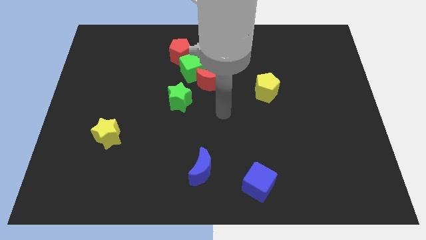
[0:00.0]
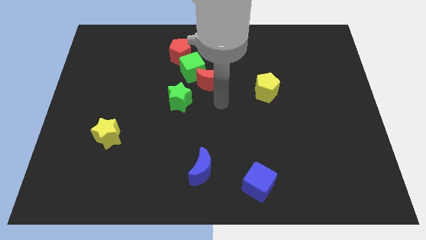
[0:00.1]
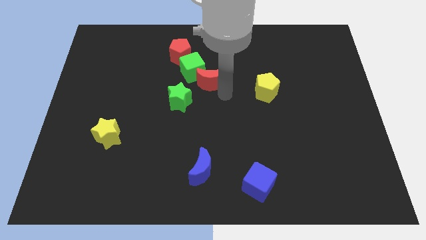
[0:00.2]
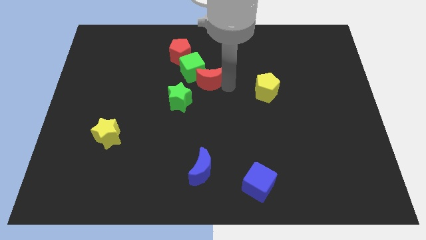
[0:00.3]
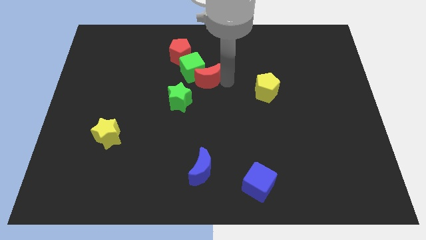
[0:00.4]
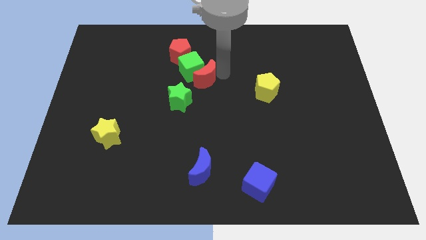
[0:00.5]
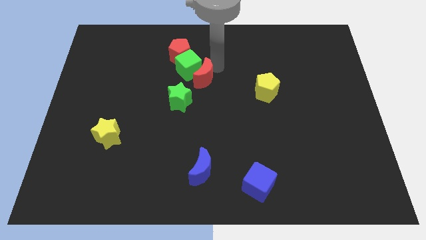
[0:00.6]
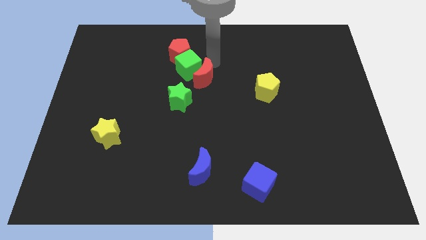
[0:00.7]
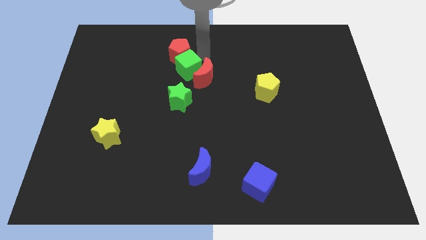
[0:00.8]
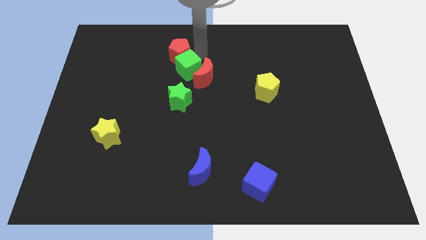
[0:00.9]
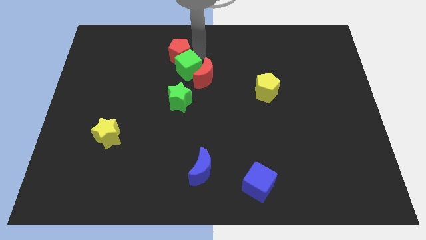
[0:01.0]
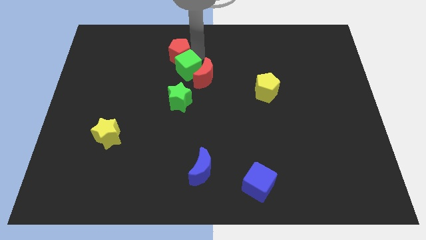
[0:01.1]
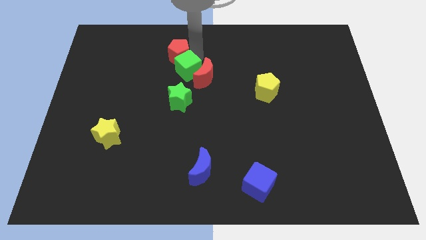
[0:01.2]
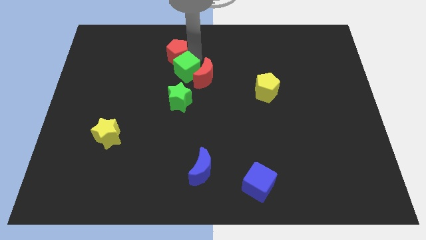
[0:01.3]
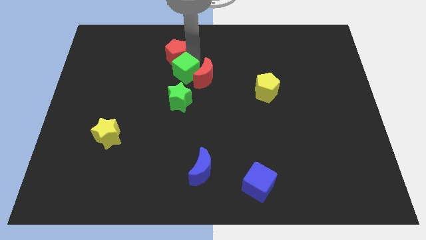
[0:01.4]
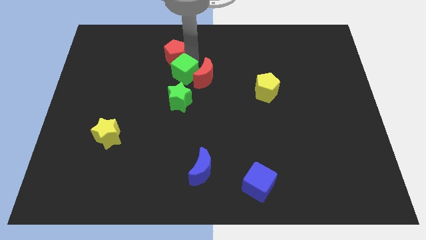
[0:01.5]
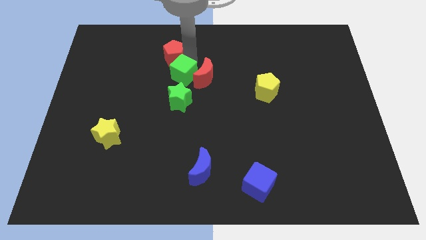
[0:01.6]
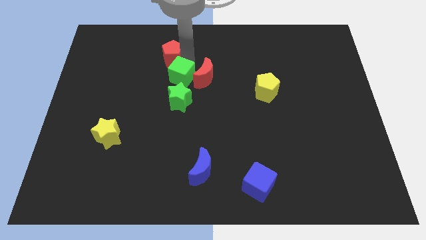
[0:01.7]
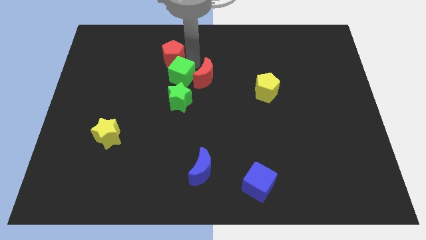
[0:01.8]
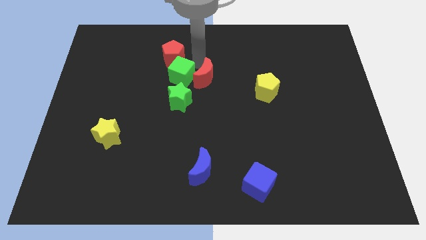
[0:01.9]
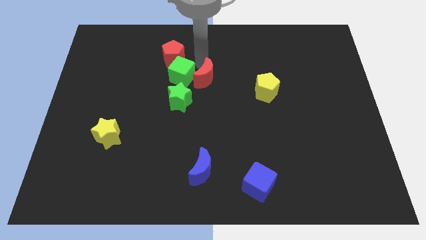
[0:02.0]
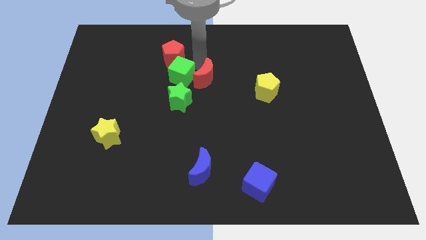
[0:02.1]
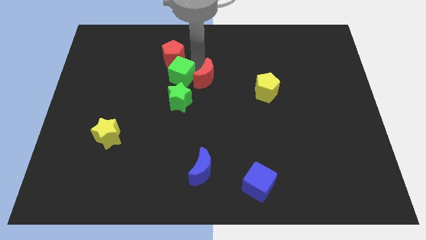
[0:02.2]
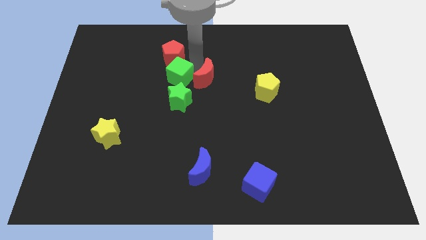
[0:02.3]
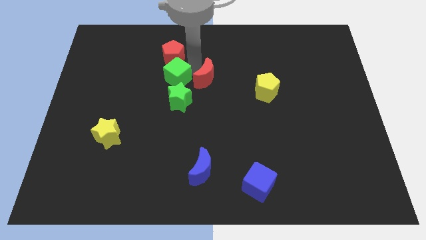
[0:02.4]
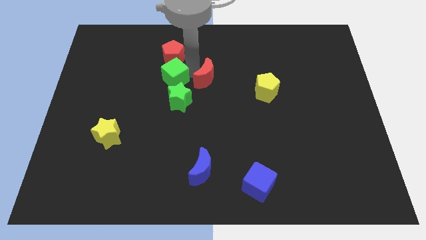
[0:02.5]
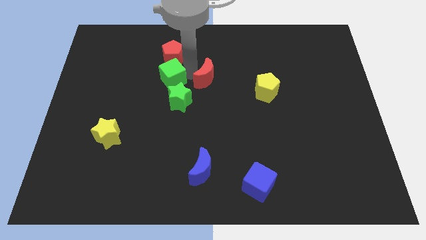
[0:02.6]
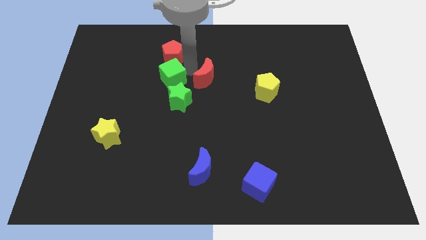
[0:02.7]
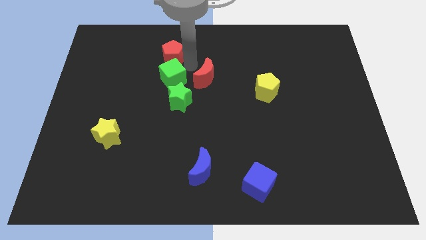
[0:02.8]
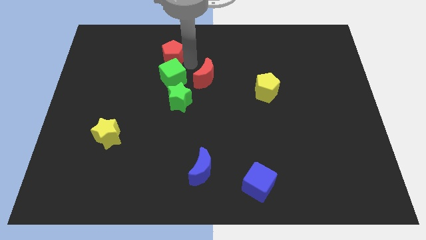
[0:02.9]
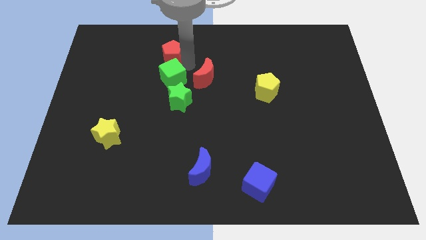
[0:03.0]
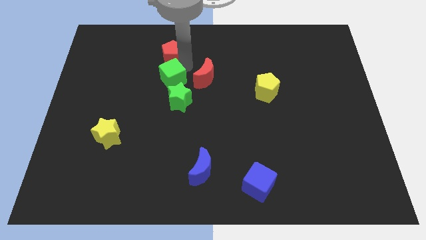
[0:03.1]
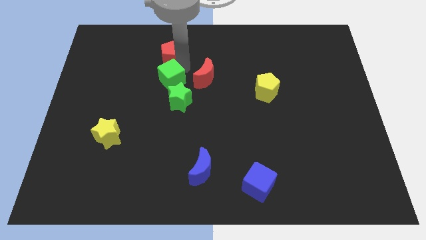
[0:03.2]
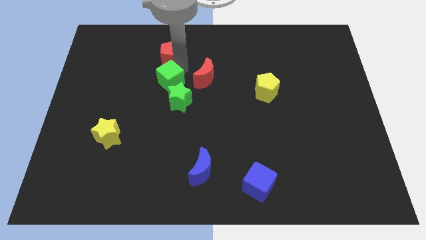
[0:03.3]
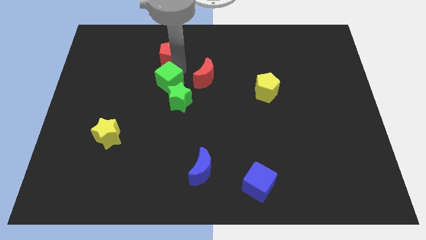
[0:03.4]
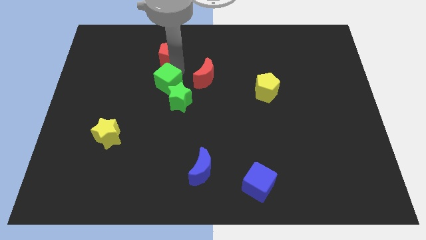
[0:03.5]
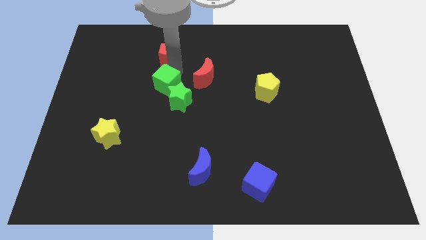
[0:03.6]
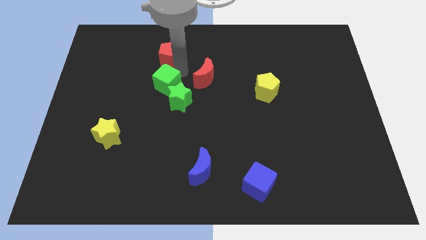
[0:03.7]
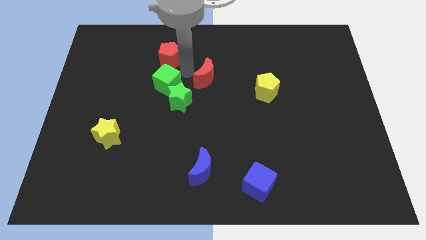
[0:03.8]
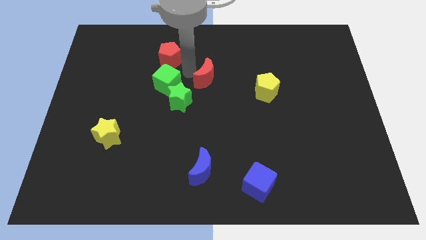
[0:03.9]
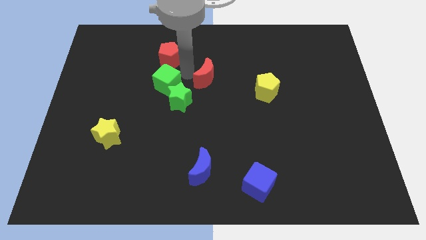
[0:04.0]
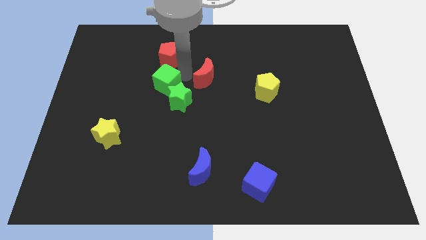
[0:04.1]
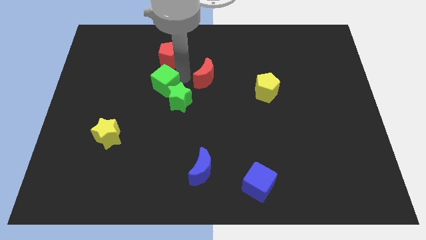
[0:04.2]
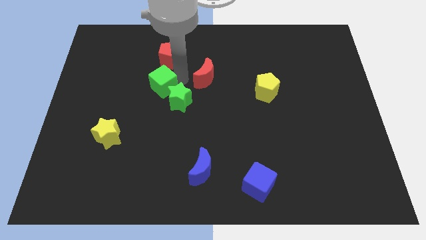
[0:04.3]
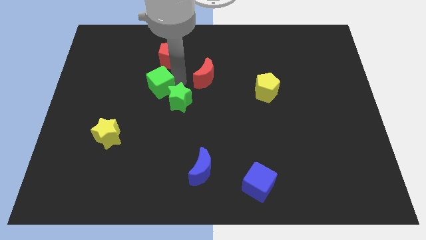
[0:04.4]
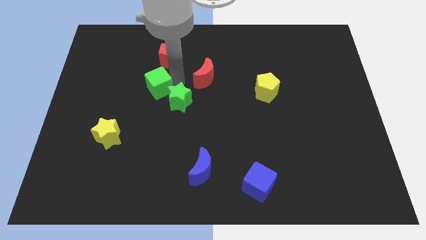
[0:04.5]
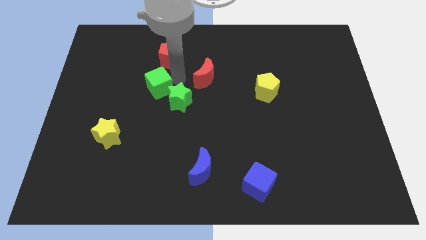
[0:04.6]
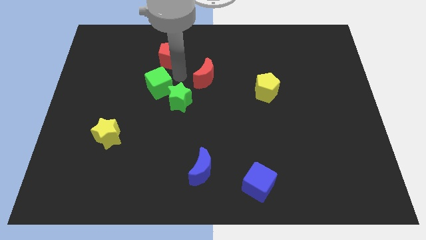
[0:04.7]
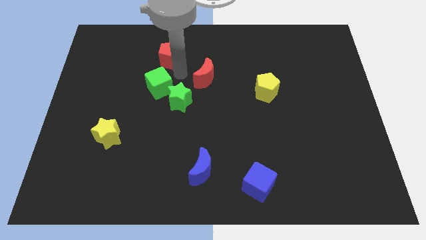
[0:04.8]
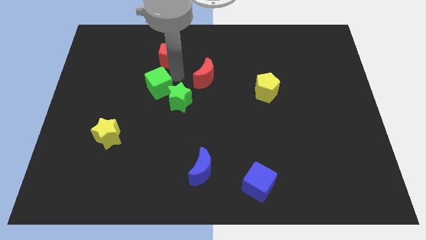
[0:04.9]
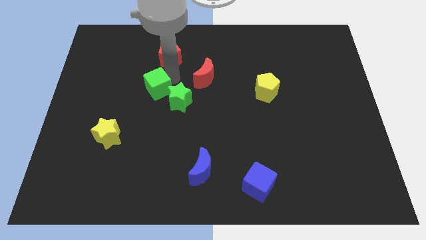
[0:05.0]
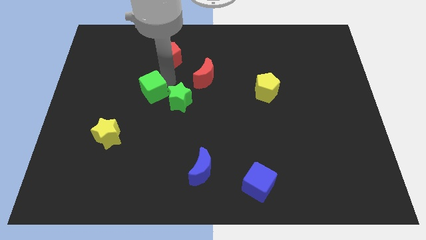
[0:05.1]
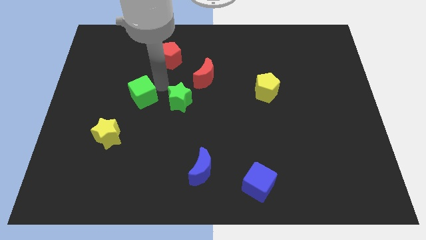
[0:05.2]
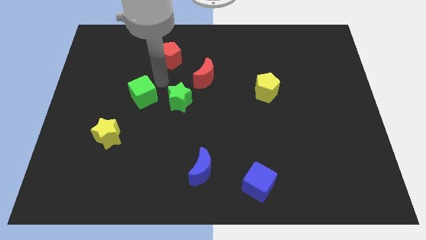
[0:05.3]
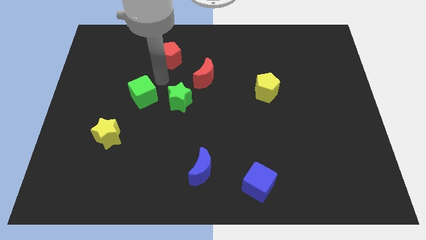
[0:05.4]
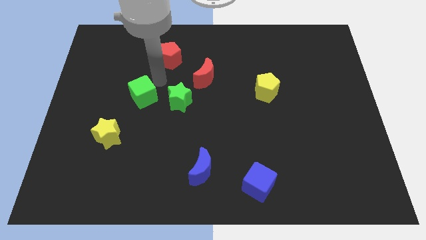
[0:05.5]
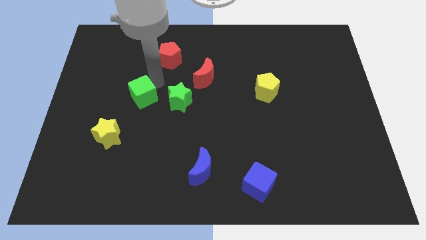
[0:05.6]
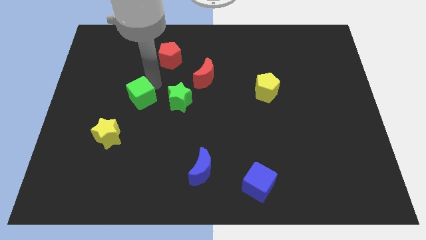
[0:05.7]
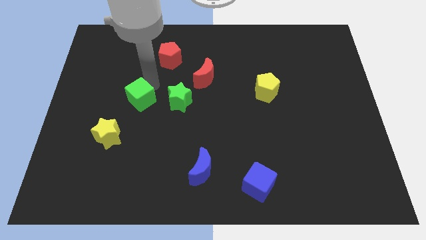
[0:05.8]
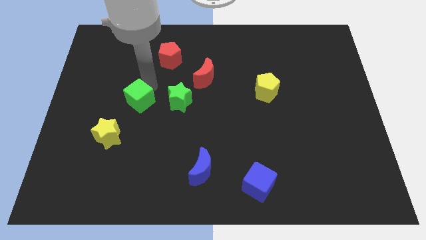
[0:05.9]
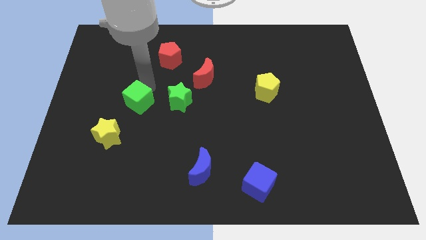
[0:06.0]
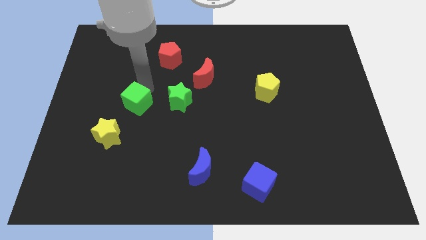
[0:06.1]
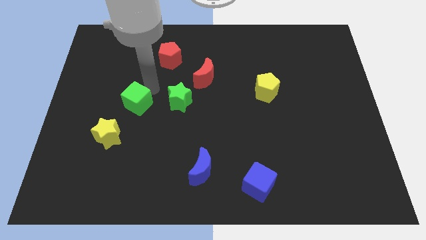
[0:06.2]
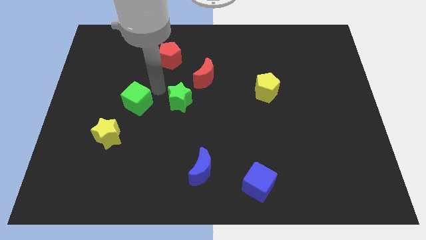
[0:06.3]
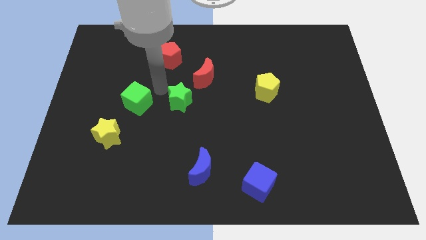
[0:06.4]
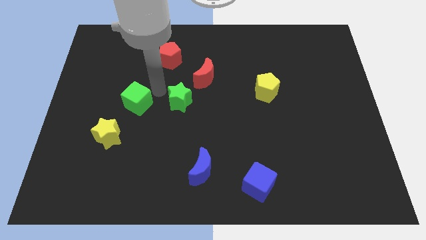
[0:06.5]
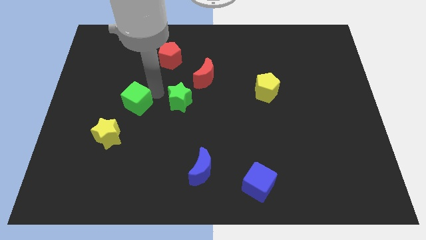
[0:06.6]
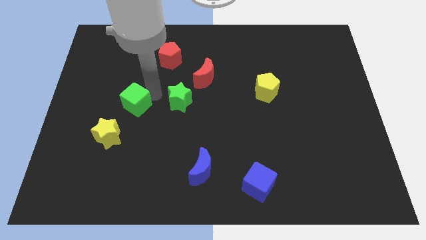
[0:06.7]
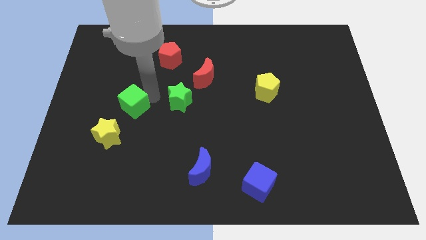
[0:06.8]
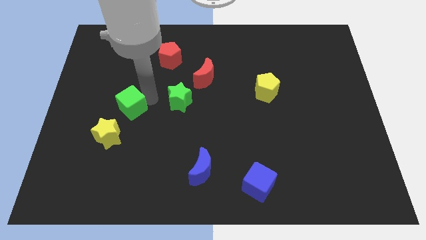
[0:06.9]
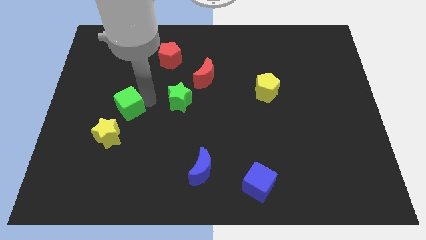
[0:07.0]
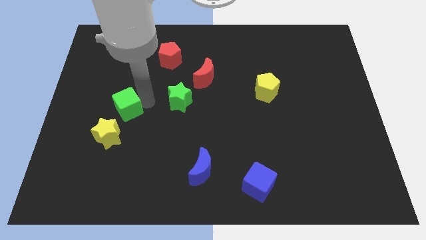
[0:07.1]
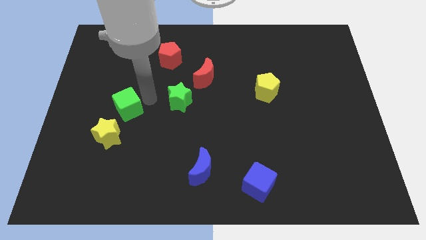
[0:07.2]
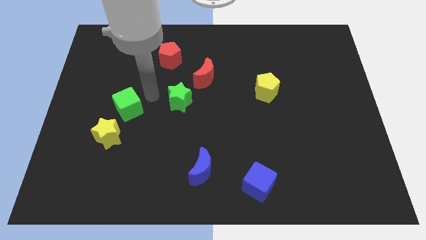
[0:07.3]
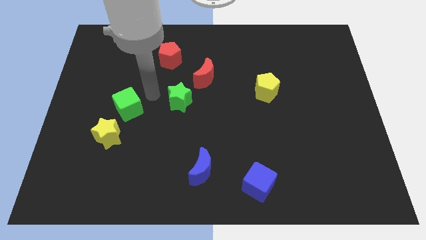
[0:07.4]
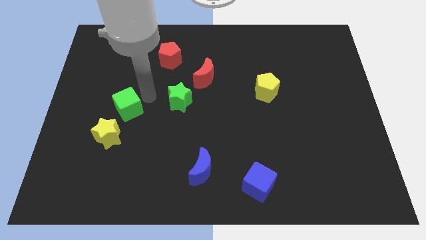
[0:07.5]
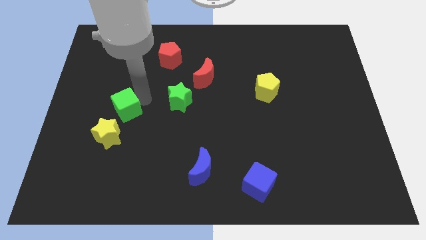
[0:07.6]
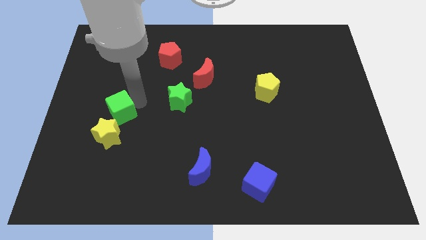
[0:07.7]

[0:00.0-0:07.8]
slide the green cube down and to the left

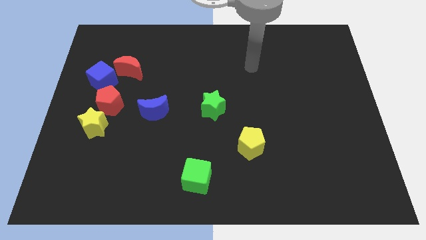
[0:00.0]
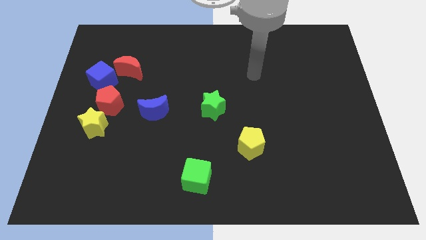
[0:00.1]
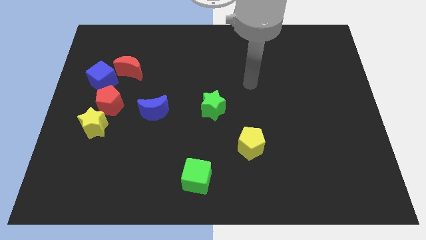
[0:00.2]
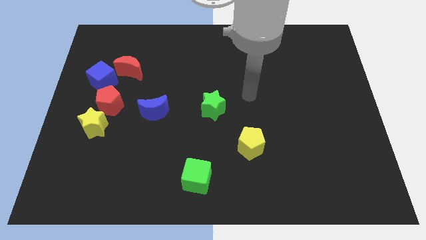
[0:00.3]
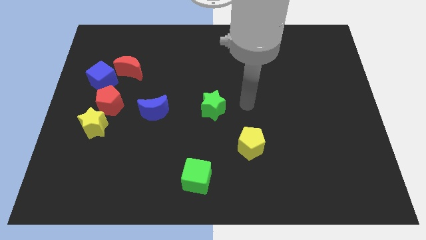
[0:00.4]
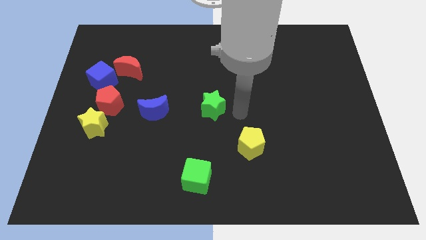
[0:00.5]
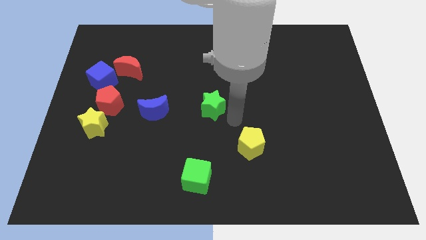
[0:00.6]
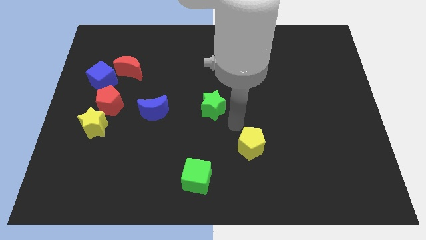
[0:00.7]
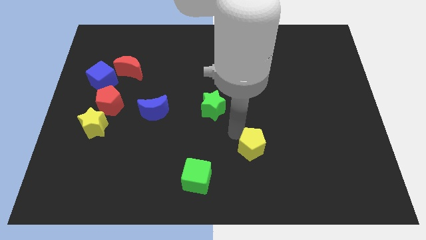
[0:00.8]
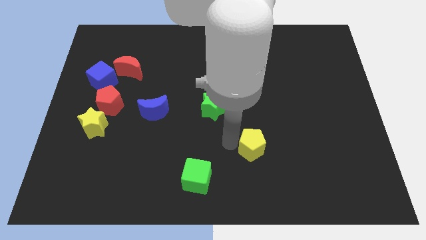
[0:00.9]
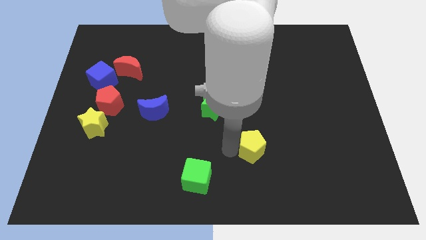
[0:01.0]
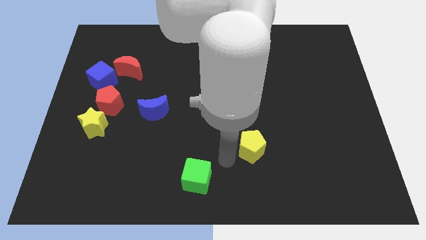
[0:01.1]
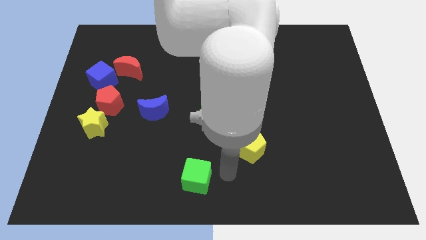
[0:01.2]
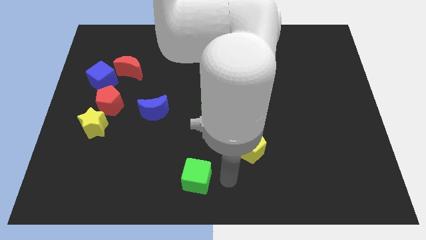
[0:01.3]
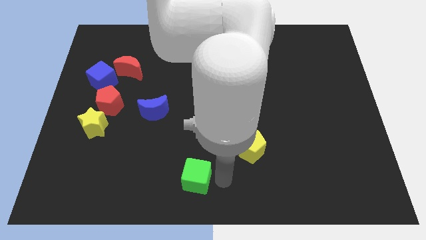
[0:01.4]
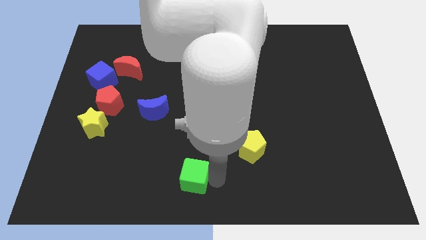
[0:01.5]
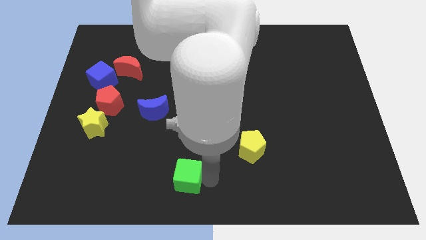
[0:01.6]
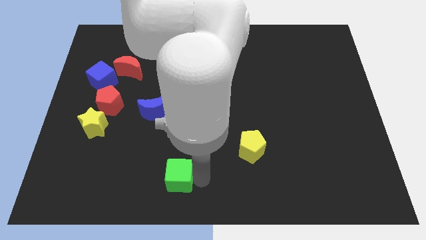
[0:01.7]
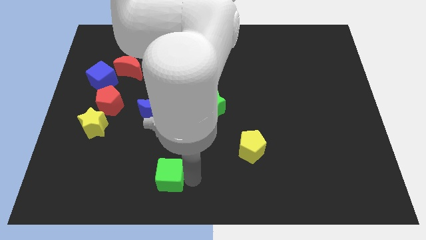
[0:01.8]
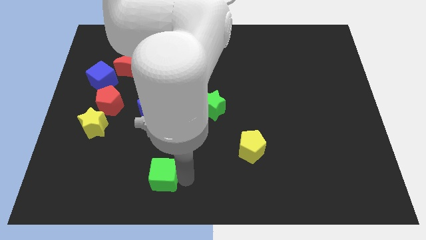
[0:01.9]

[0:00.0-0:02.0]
slide the green cube left a little bit
